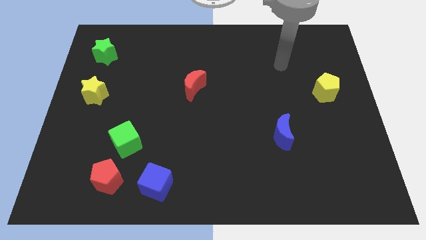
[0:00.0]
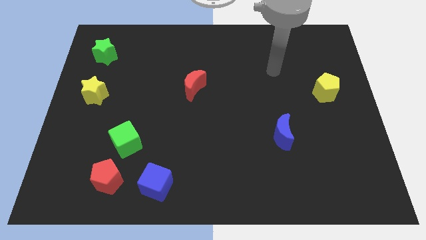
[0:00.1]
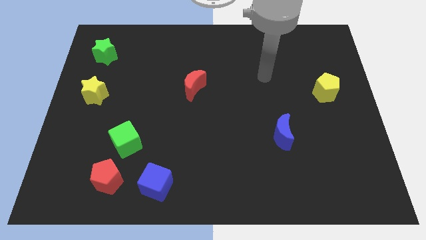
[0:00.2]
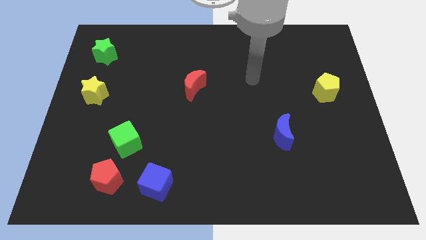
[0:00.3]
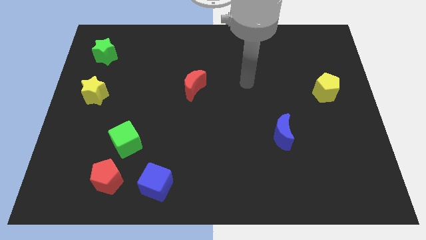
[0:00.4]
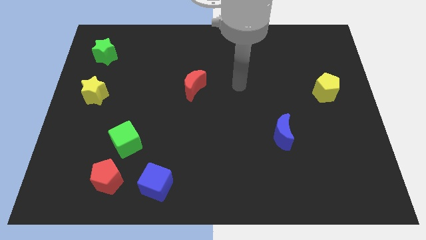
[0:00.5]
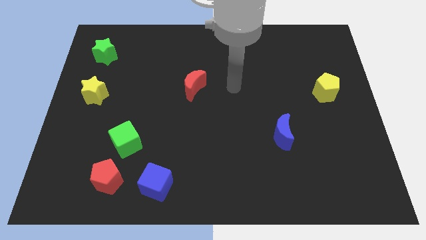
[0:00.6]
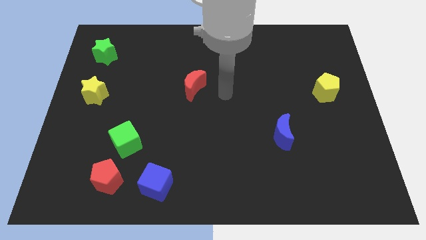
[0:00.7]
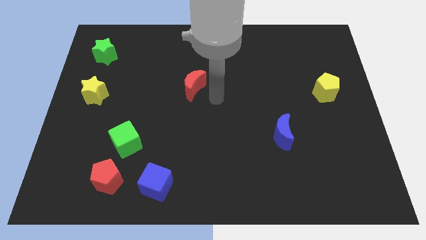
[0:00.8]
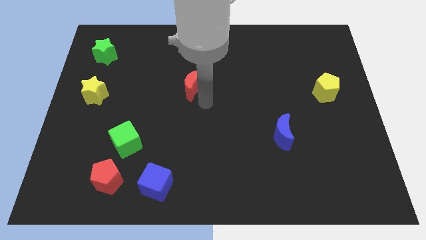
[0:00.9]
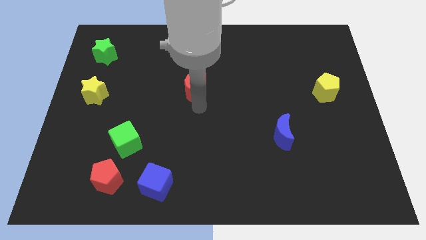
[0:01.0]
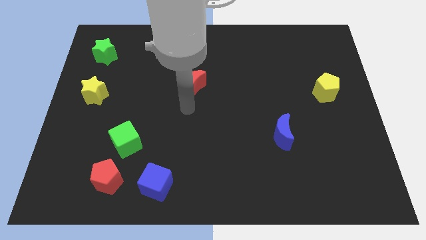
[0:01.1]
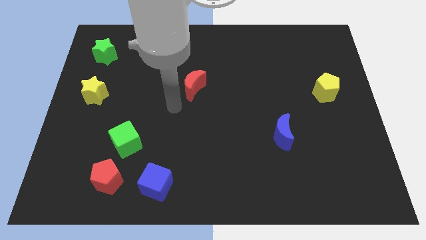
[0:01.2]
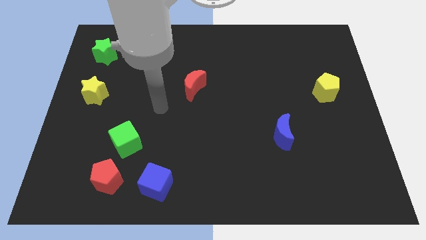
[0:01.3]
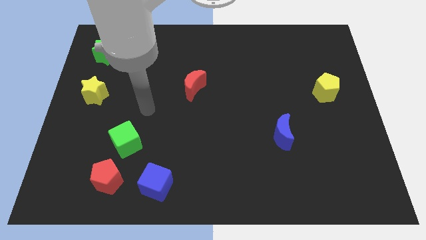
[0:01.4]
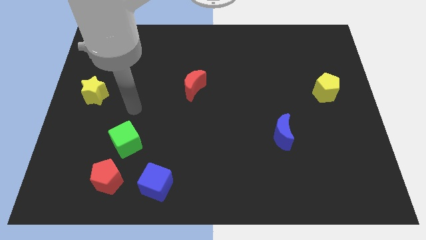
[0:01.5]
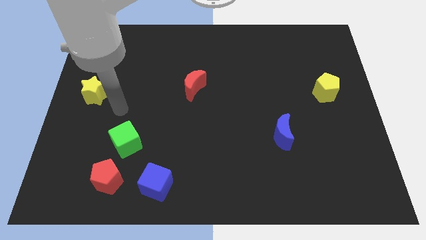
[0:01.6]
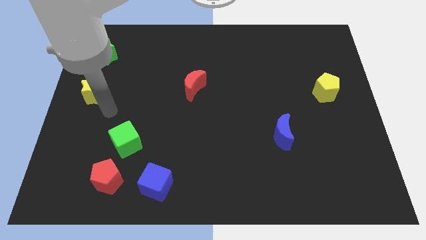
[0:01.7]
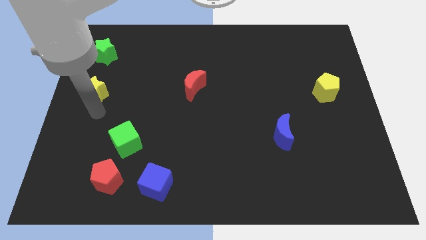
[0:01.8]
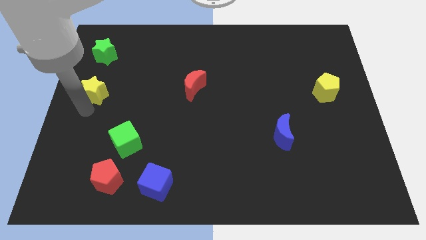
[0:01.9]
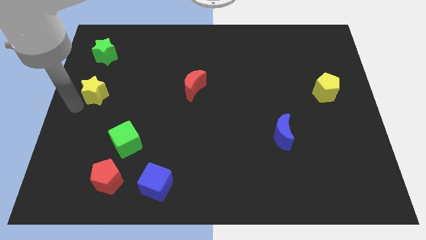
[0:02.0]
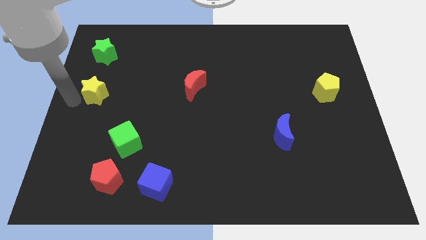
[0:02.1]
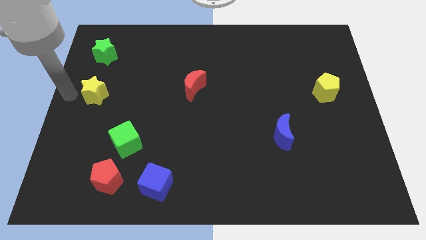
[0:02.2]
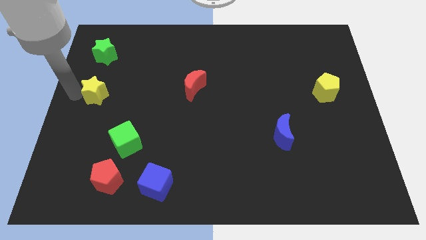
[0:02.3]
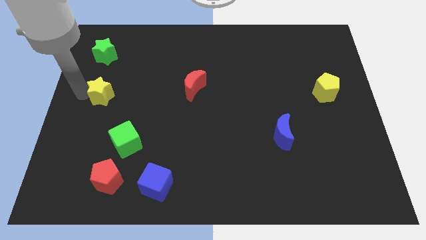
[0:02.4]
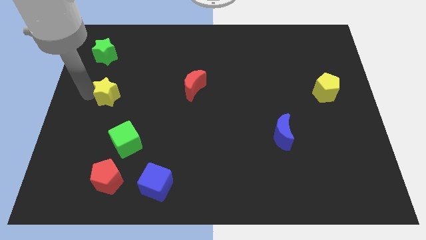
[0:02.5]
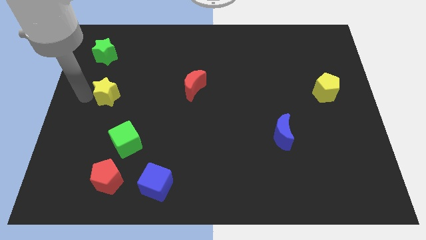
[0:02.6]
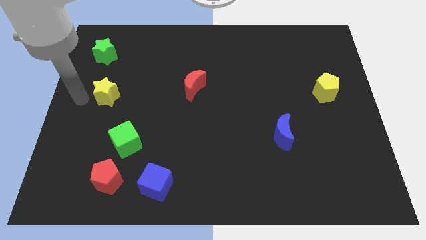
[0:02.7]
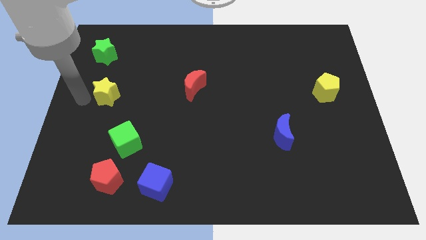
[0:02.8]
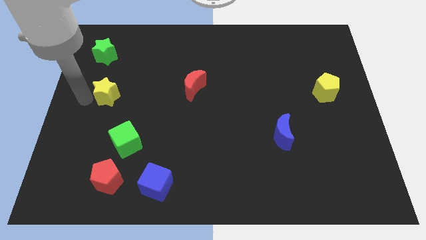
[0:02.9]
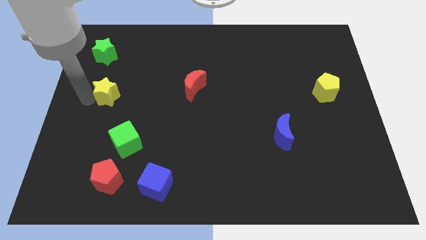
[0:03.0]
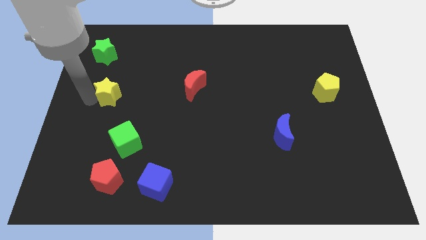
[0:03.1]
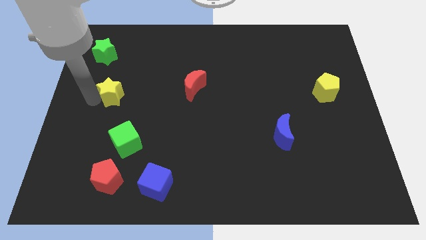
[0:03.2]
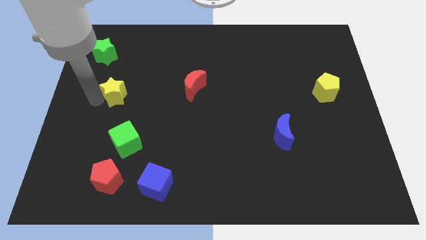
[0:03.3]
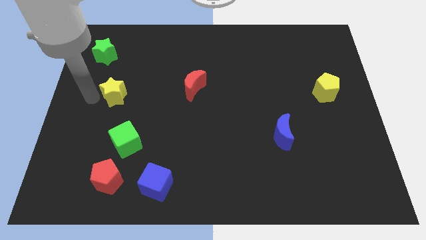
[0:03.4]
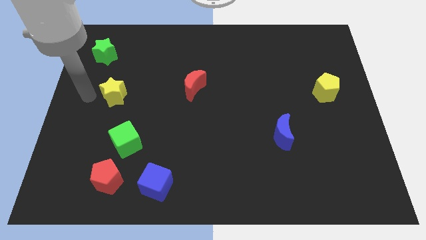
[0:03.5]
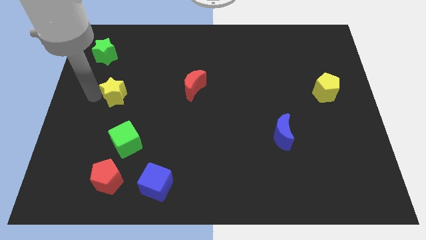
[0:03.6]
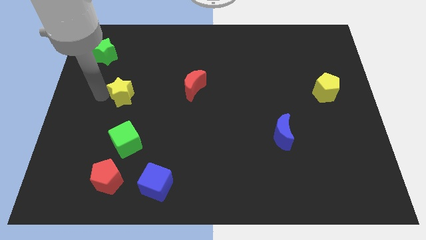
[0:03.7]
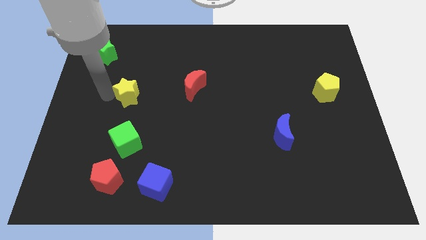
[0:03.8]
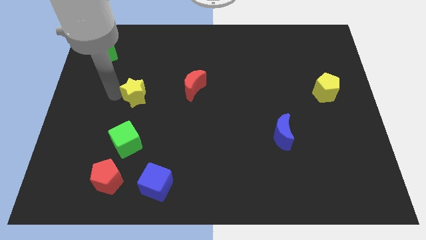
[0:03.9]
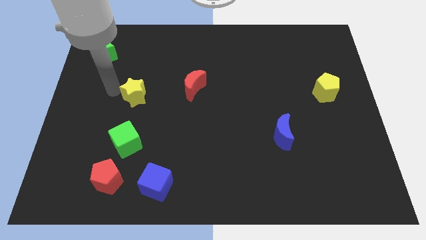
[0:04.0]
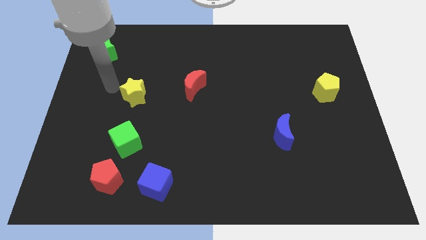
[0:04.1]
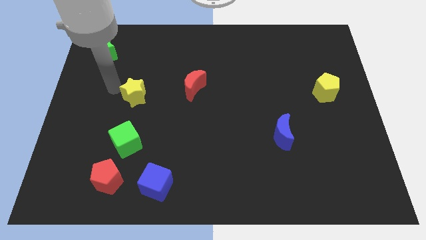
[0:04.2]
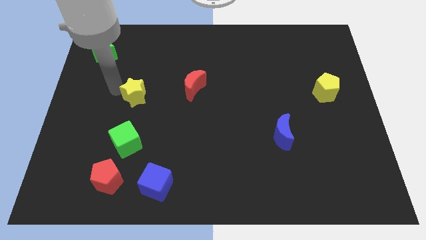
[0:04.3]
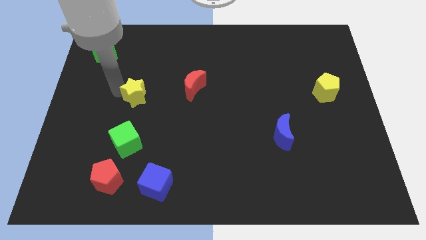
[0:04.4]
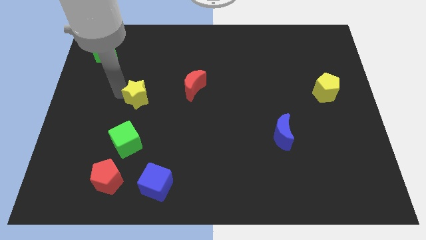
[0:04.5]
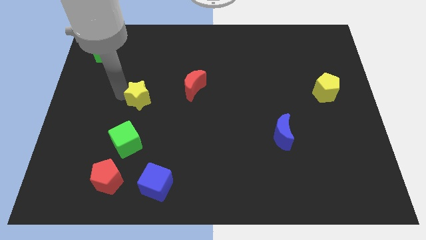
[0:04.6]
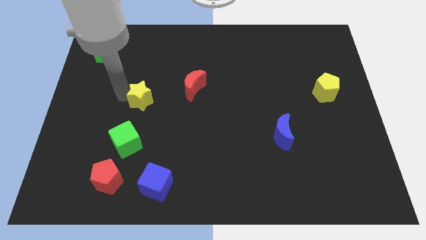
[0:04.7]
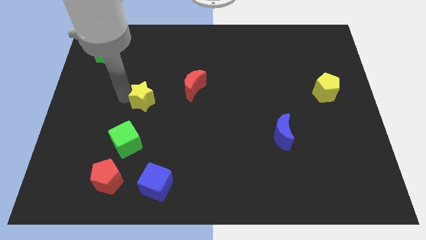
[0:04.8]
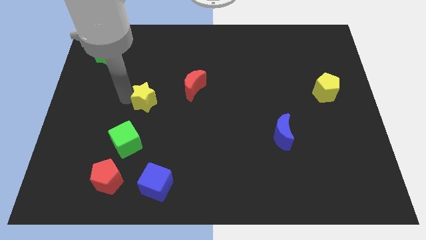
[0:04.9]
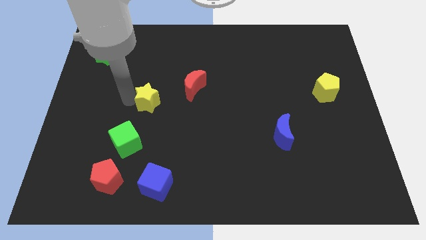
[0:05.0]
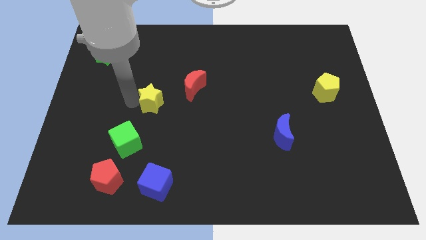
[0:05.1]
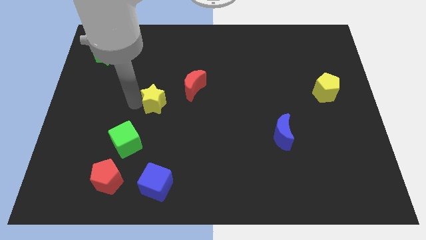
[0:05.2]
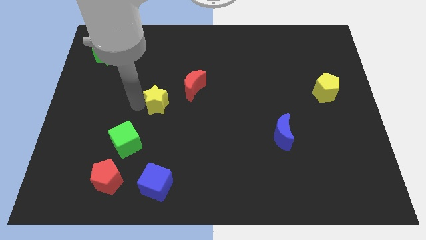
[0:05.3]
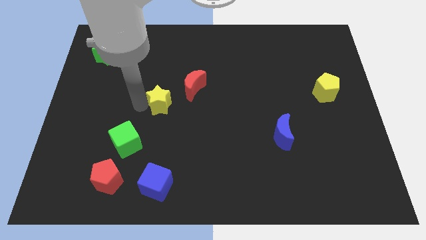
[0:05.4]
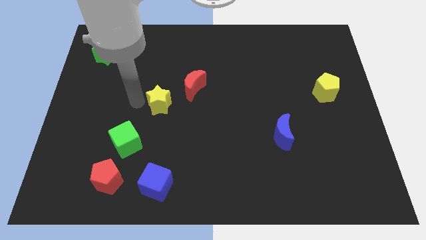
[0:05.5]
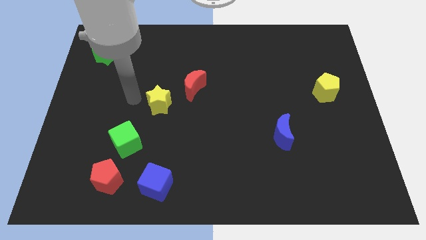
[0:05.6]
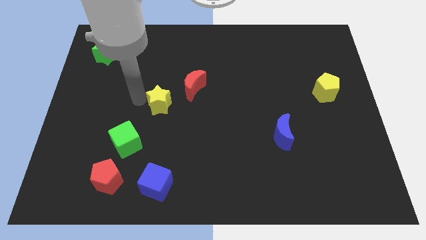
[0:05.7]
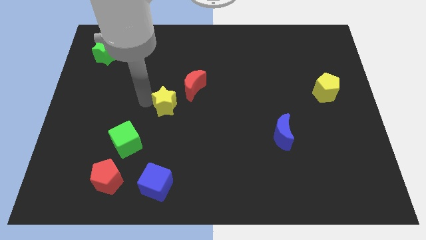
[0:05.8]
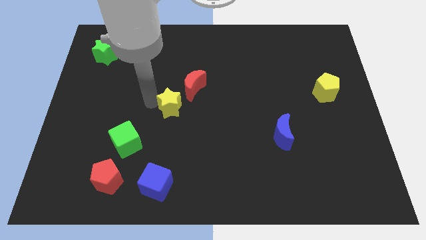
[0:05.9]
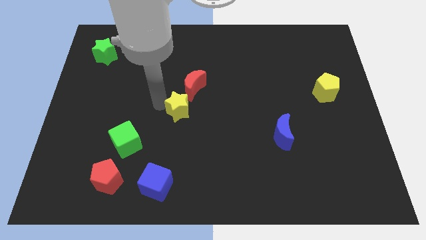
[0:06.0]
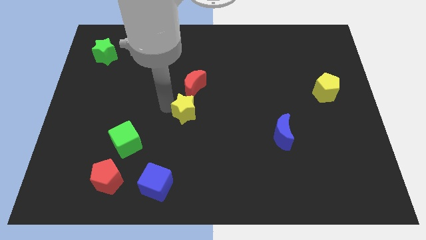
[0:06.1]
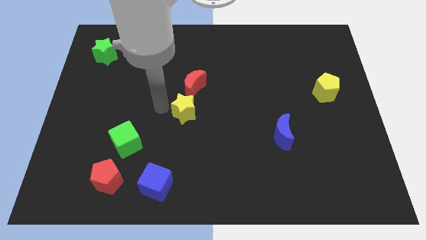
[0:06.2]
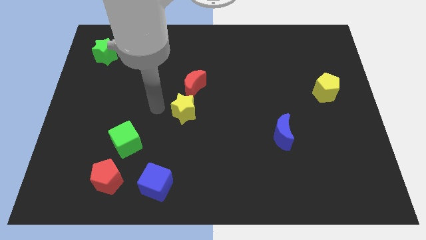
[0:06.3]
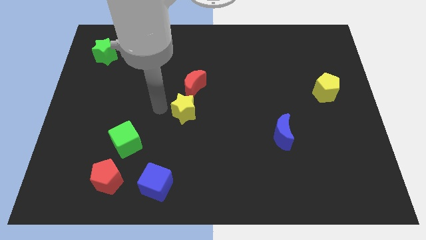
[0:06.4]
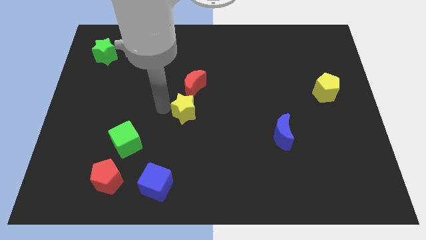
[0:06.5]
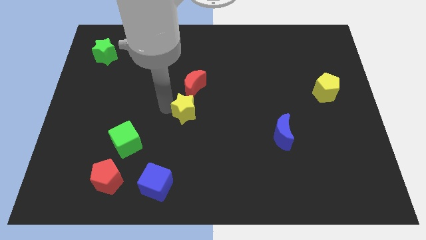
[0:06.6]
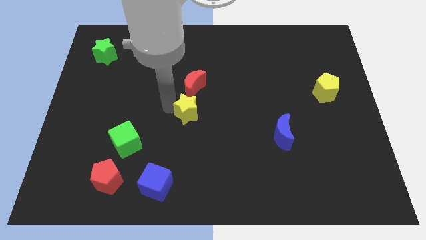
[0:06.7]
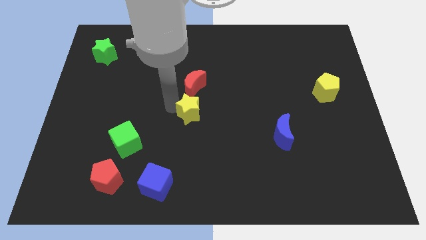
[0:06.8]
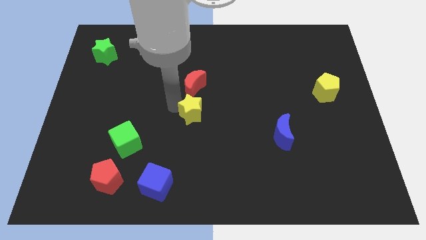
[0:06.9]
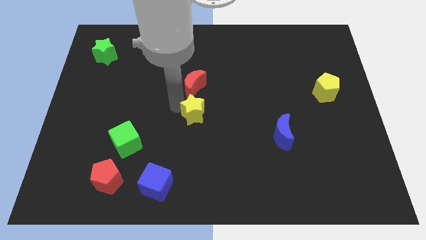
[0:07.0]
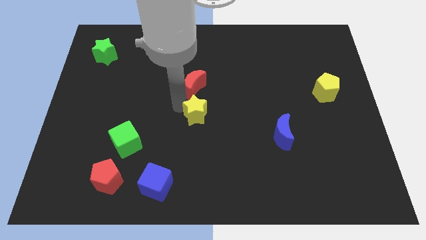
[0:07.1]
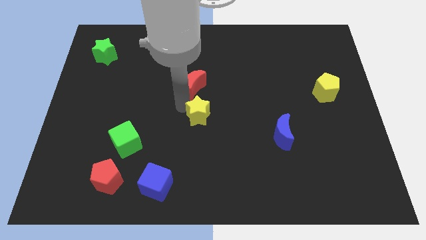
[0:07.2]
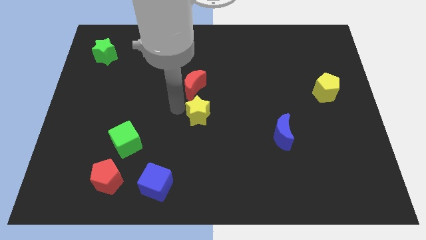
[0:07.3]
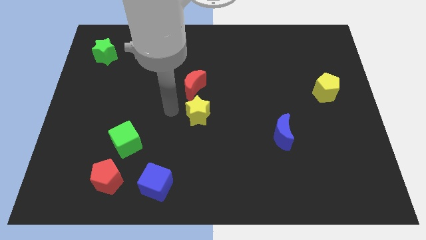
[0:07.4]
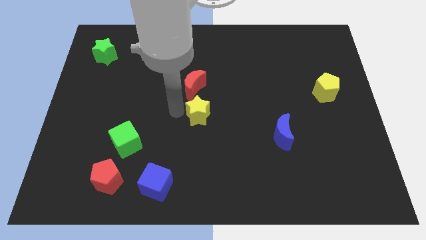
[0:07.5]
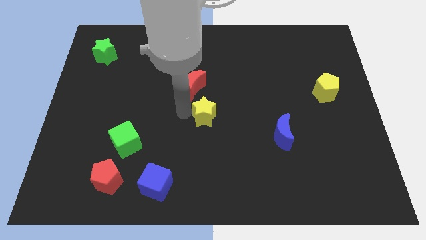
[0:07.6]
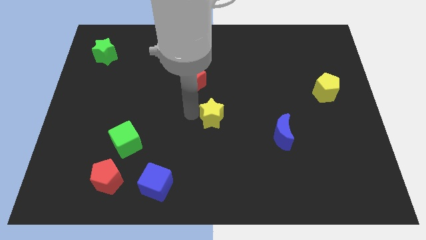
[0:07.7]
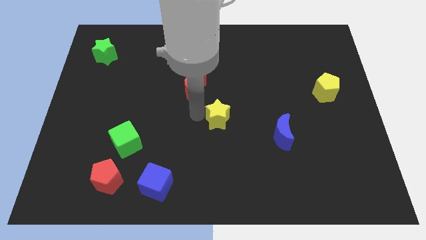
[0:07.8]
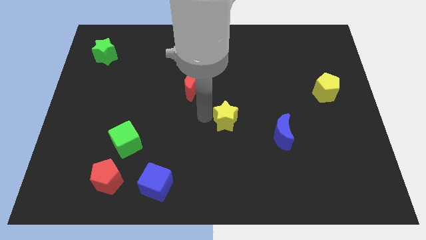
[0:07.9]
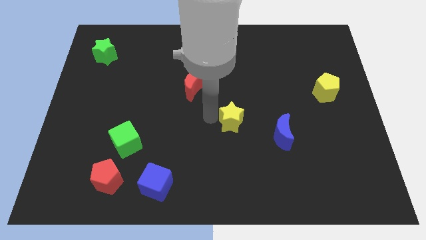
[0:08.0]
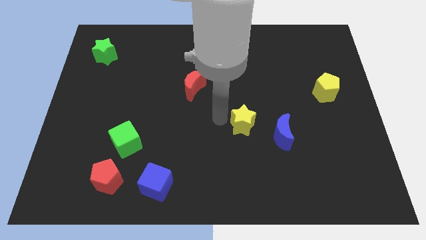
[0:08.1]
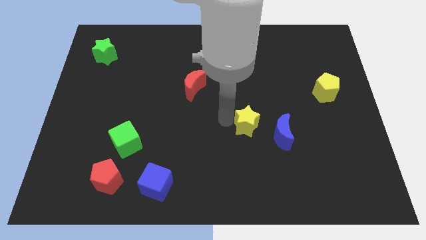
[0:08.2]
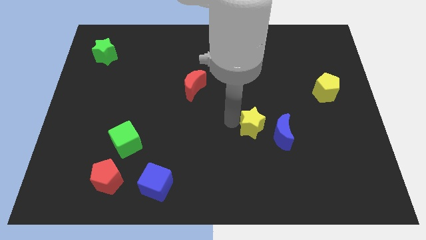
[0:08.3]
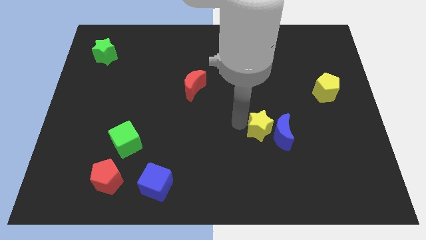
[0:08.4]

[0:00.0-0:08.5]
slide the yellow star towards the blue moon
